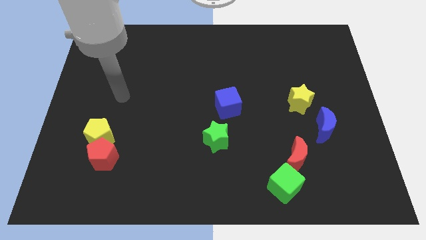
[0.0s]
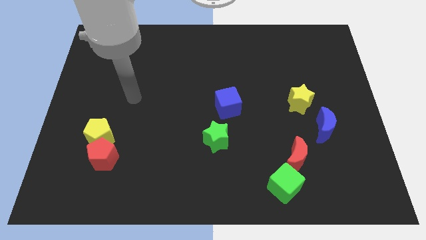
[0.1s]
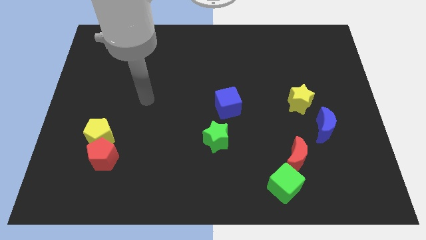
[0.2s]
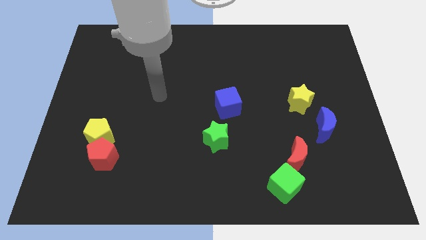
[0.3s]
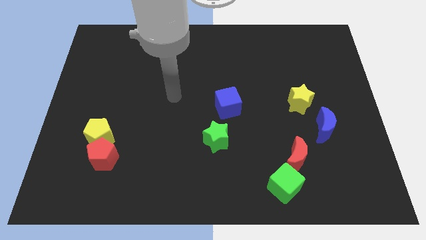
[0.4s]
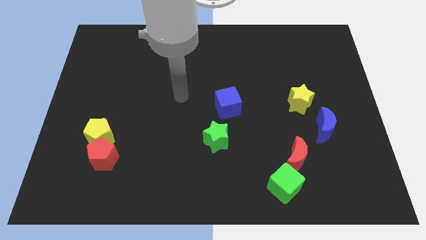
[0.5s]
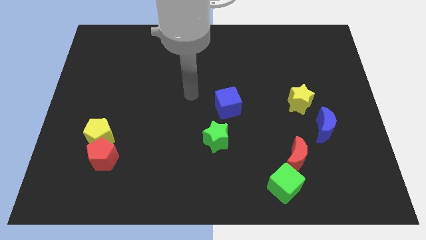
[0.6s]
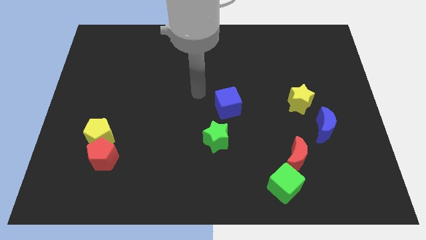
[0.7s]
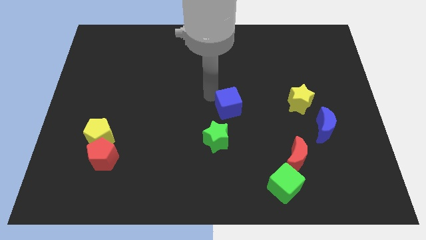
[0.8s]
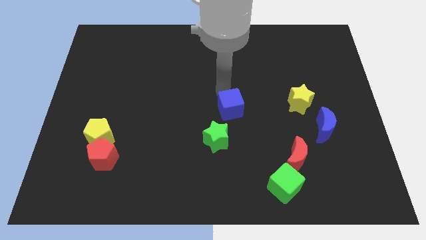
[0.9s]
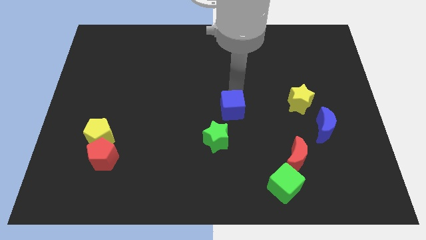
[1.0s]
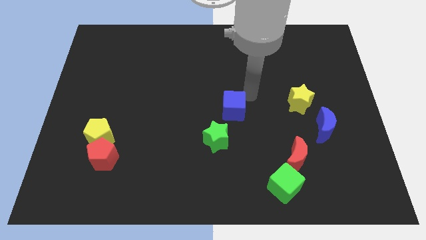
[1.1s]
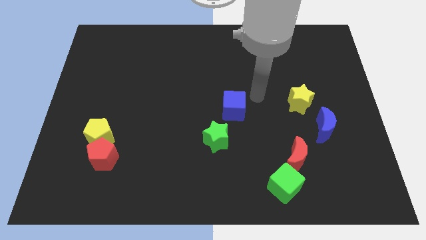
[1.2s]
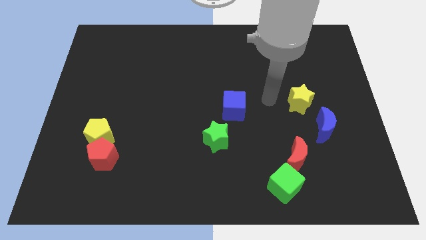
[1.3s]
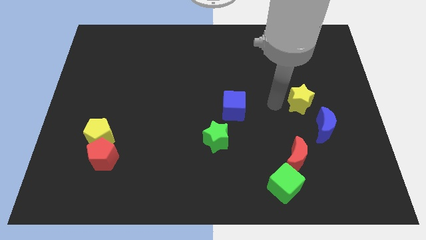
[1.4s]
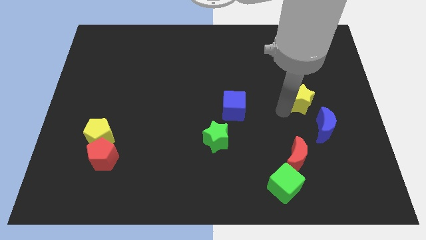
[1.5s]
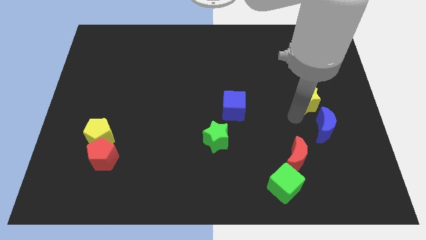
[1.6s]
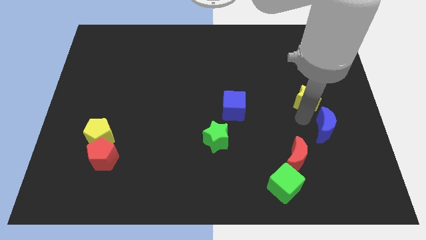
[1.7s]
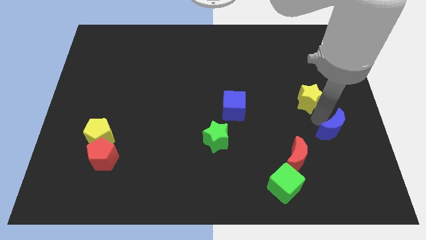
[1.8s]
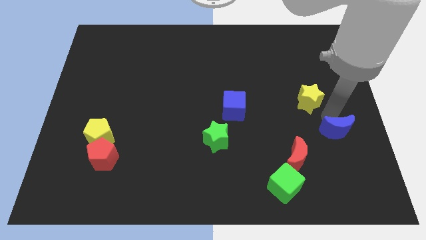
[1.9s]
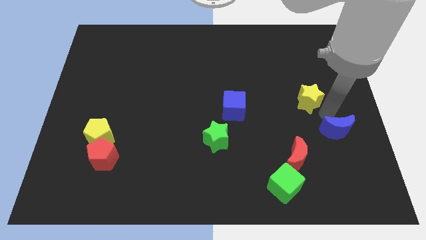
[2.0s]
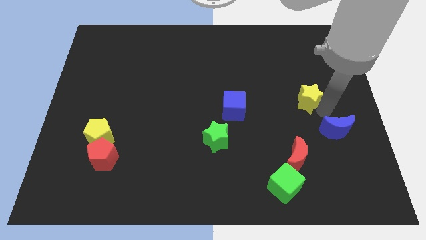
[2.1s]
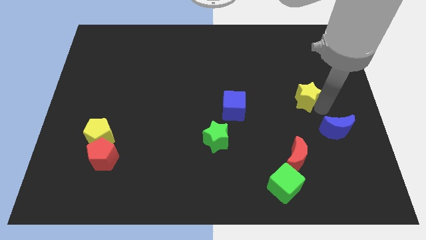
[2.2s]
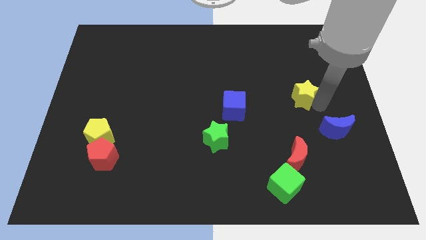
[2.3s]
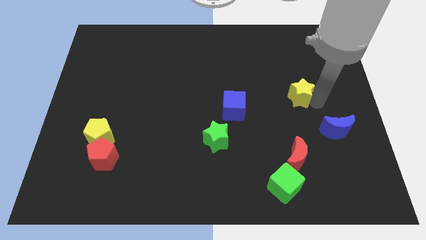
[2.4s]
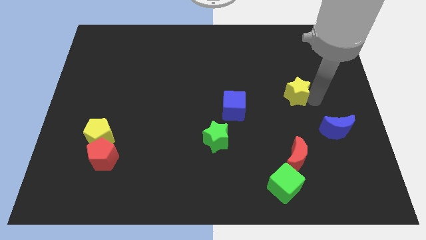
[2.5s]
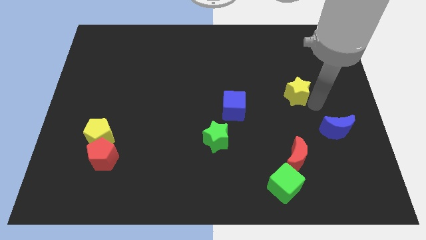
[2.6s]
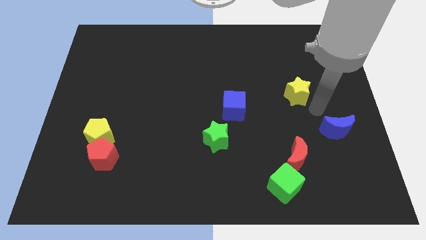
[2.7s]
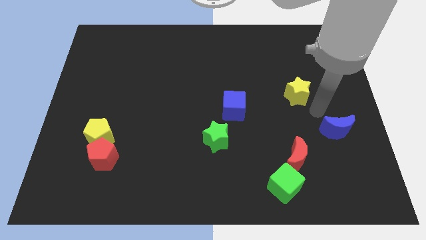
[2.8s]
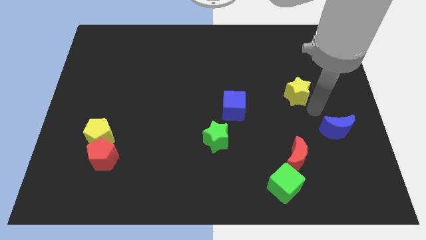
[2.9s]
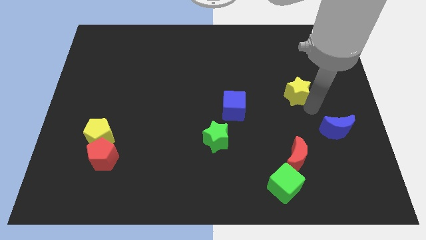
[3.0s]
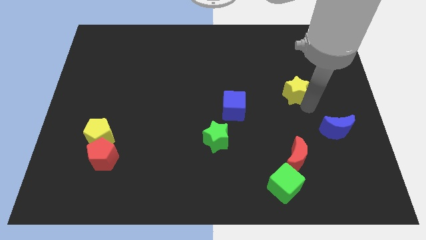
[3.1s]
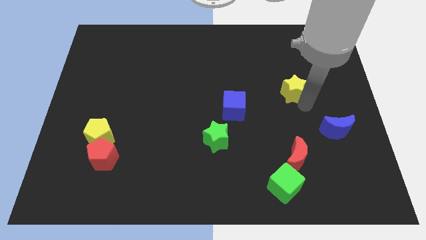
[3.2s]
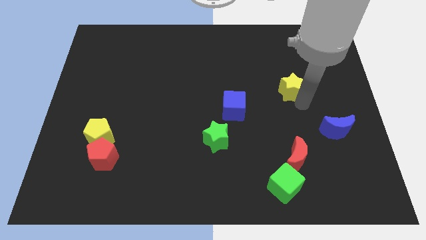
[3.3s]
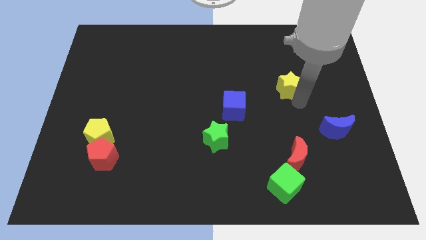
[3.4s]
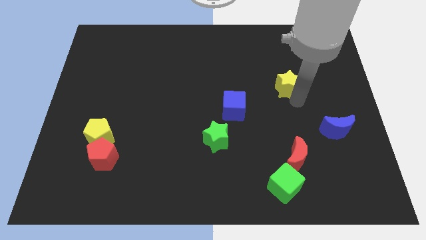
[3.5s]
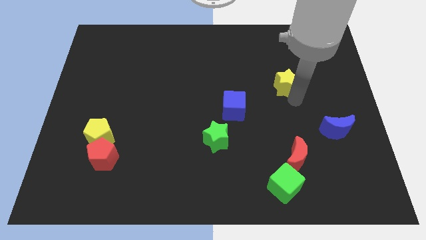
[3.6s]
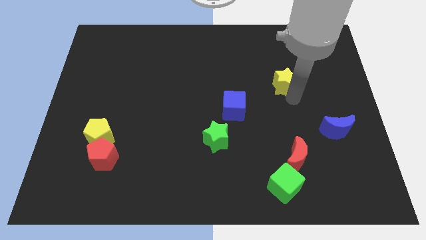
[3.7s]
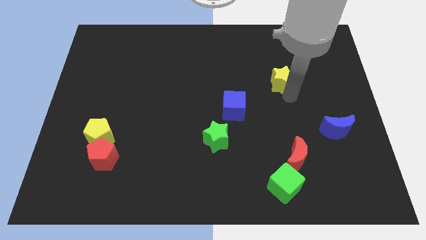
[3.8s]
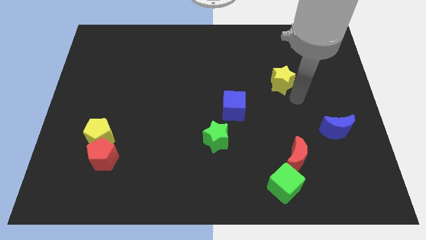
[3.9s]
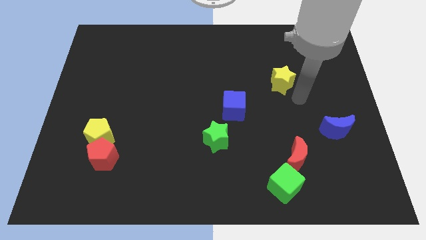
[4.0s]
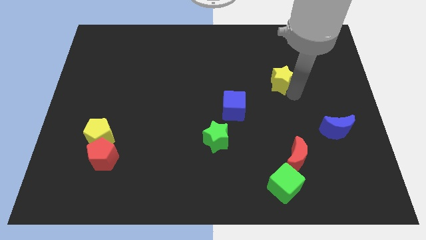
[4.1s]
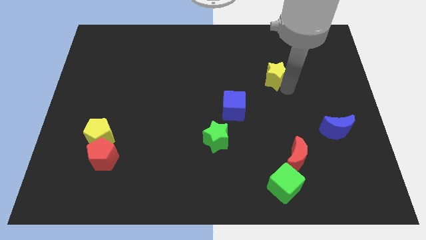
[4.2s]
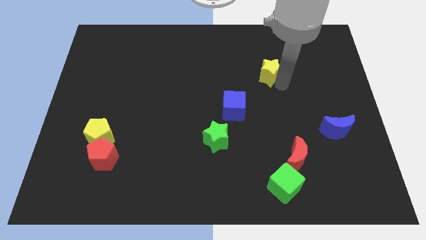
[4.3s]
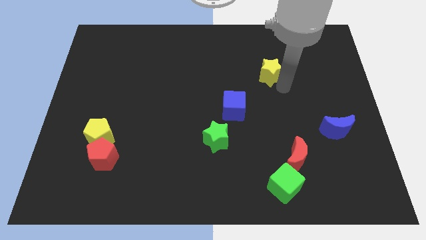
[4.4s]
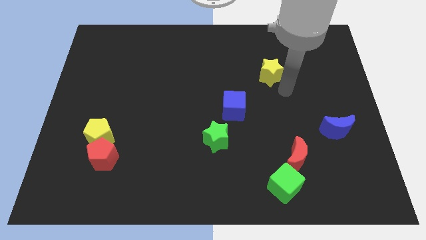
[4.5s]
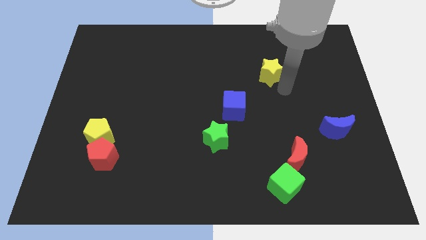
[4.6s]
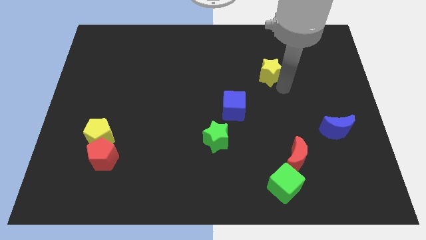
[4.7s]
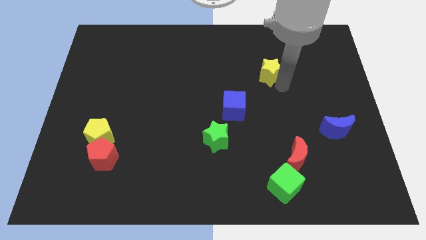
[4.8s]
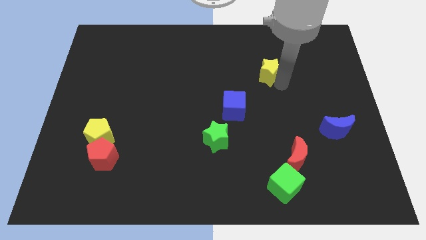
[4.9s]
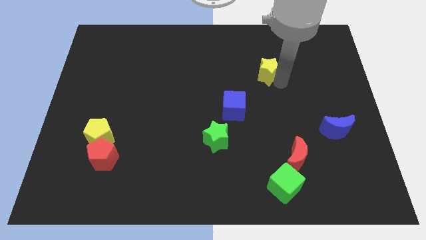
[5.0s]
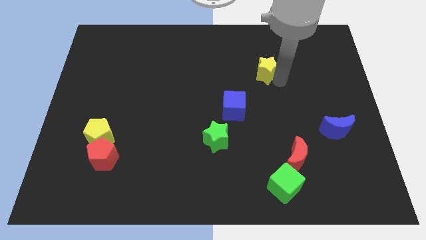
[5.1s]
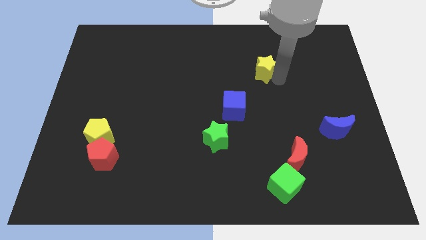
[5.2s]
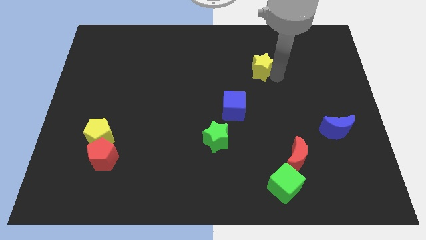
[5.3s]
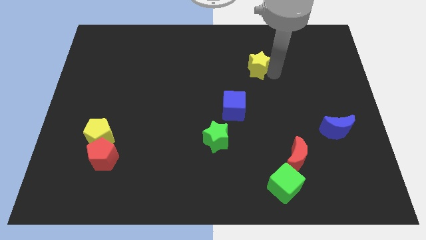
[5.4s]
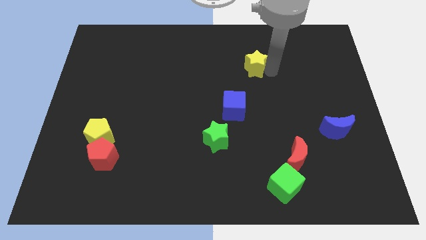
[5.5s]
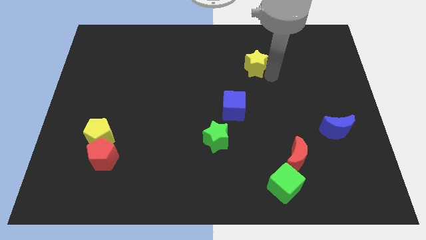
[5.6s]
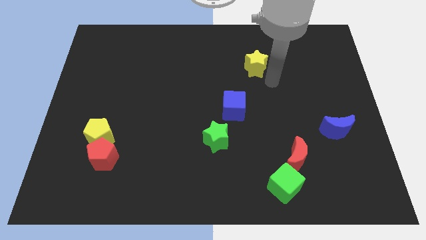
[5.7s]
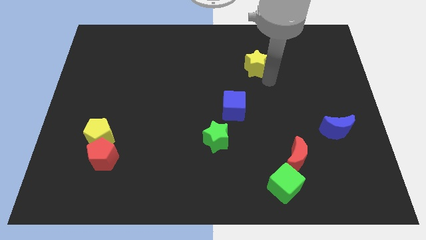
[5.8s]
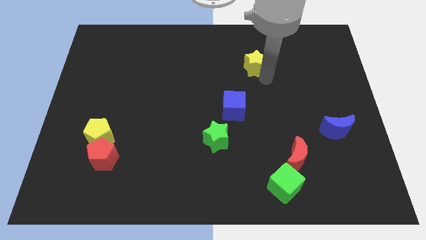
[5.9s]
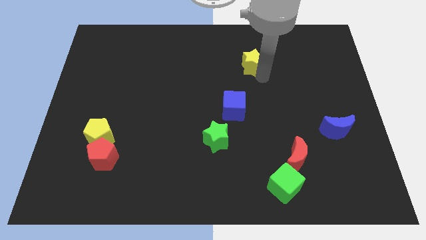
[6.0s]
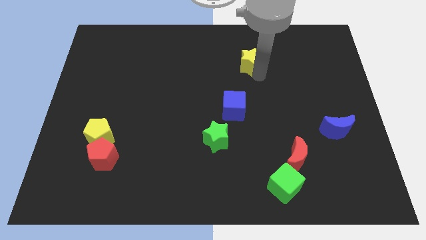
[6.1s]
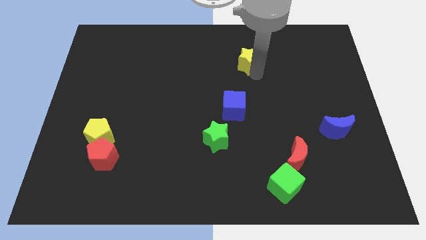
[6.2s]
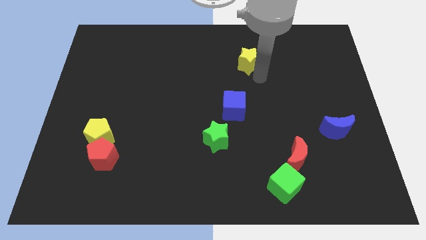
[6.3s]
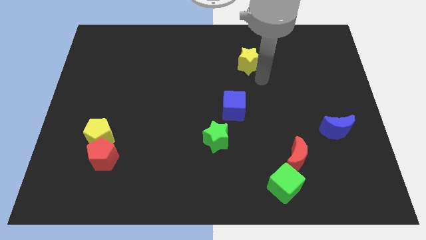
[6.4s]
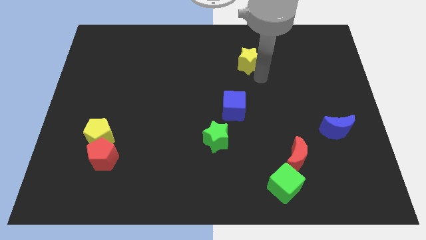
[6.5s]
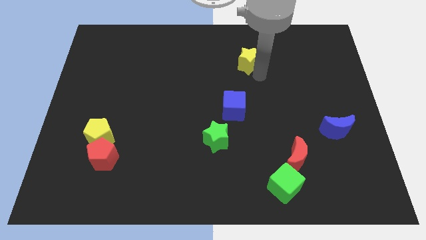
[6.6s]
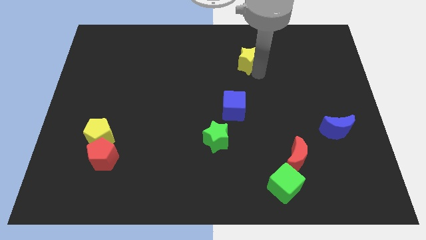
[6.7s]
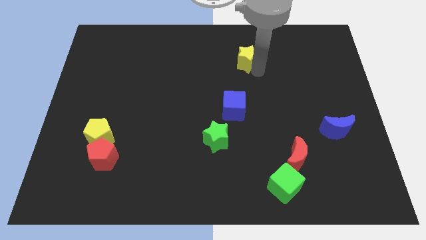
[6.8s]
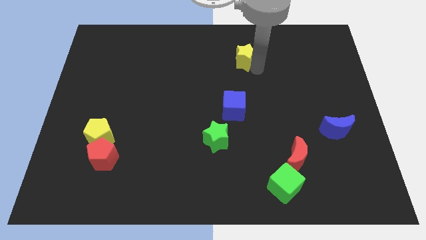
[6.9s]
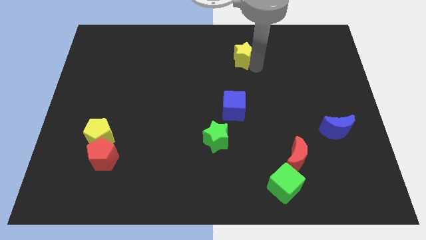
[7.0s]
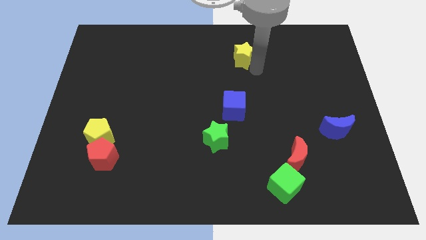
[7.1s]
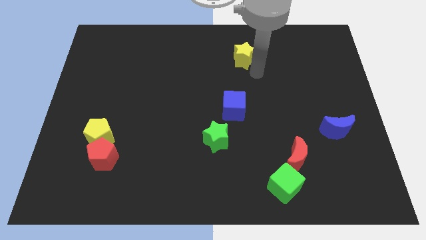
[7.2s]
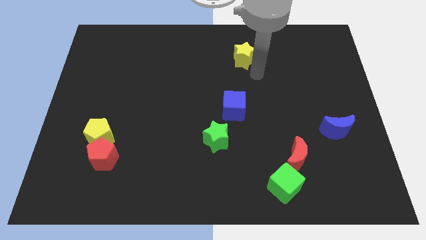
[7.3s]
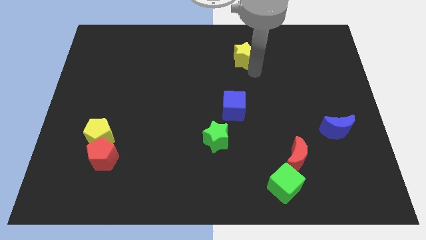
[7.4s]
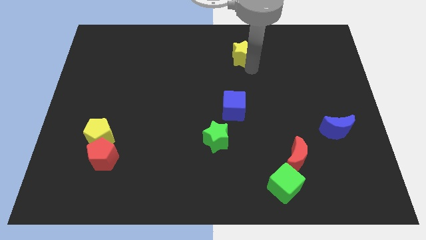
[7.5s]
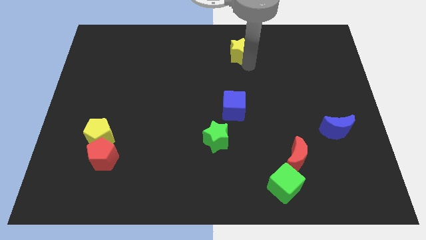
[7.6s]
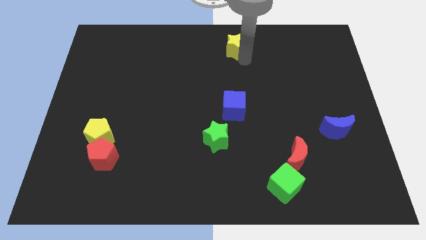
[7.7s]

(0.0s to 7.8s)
move the yellow star to the top side
